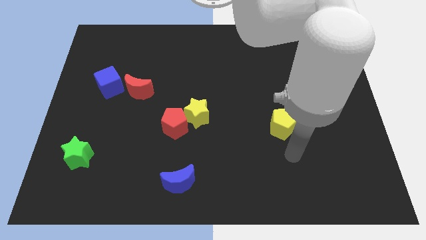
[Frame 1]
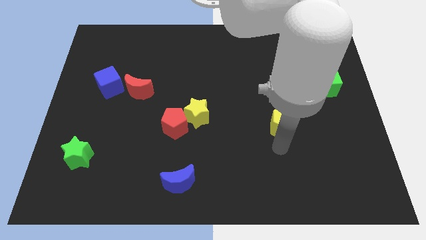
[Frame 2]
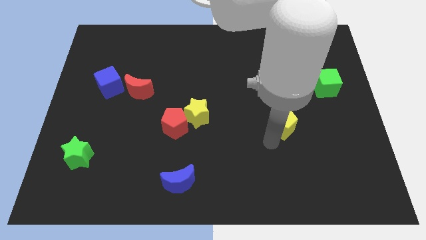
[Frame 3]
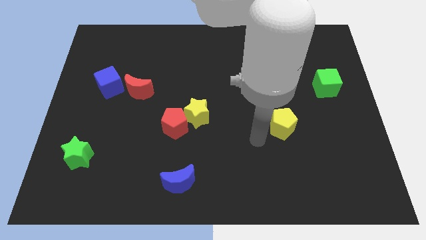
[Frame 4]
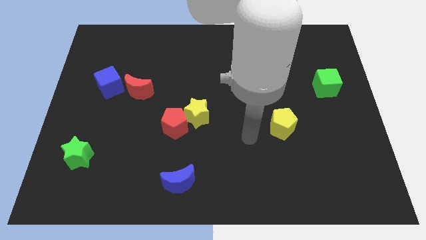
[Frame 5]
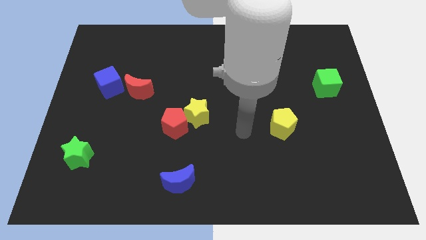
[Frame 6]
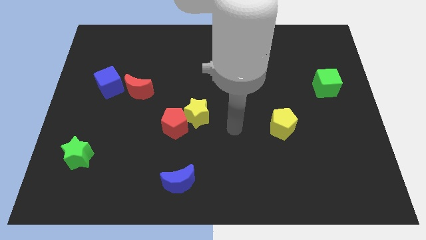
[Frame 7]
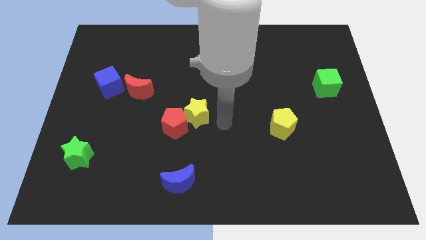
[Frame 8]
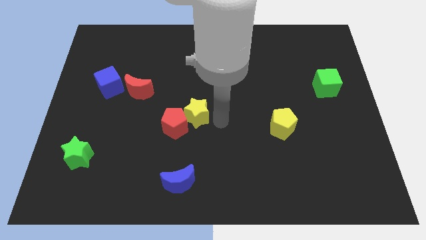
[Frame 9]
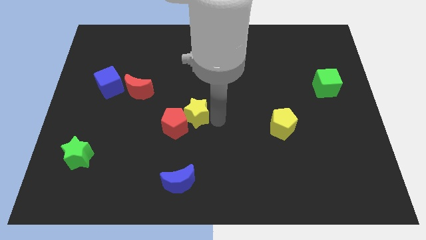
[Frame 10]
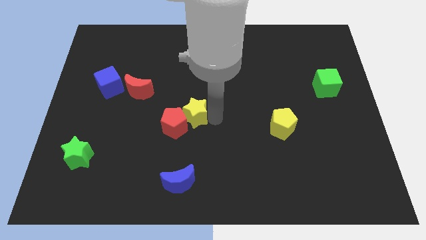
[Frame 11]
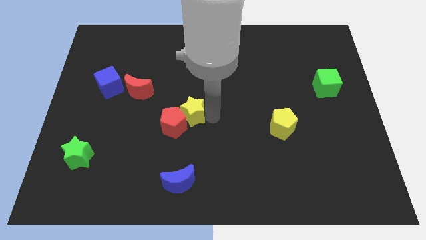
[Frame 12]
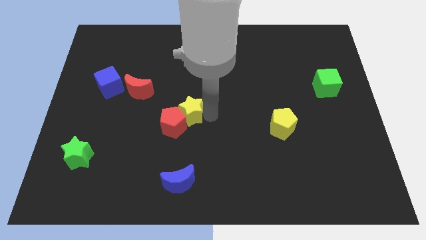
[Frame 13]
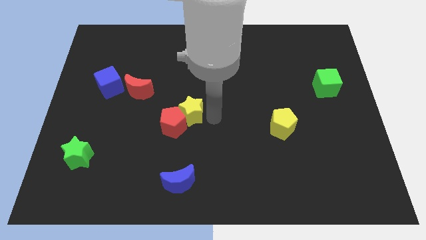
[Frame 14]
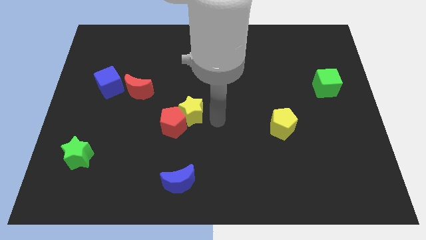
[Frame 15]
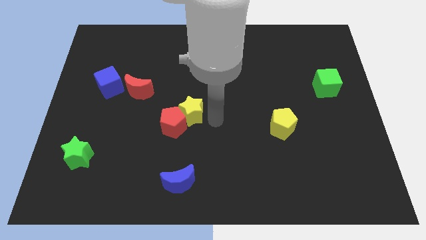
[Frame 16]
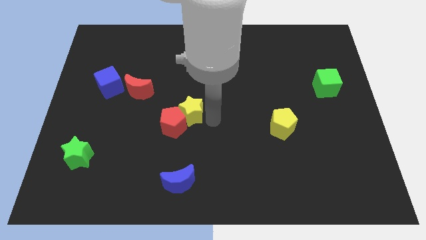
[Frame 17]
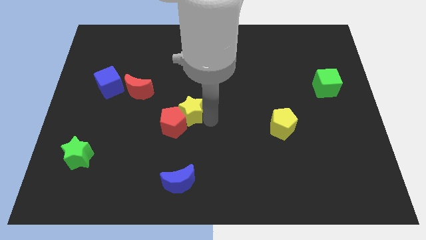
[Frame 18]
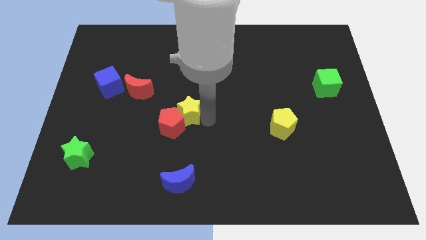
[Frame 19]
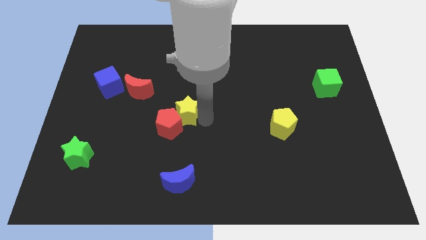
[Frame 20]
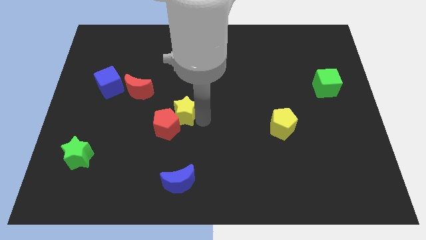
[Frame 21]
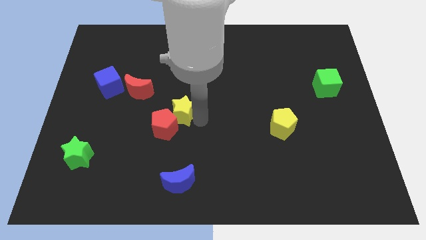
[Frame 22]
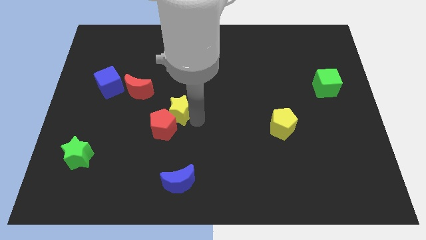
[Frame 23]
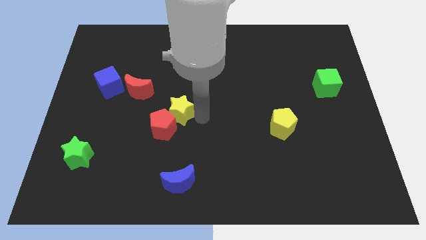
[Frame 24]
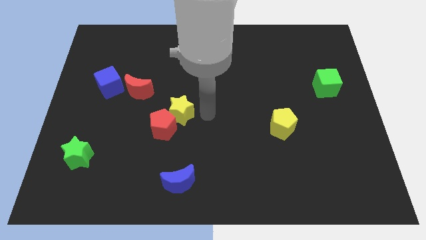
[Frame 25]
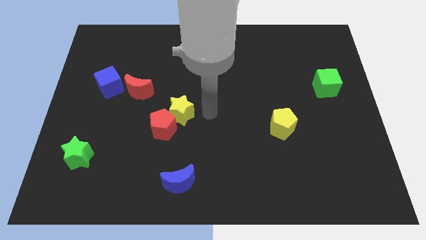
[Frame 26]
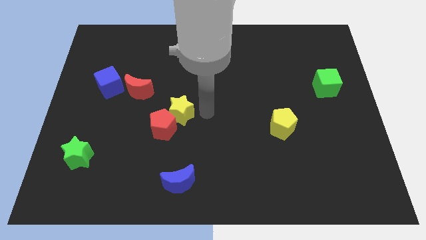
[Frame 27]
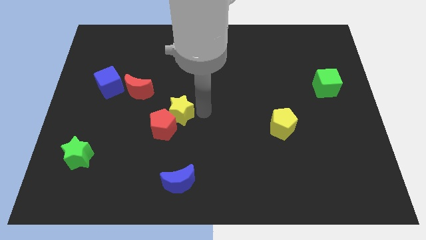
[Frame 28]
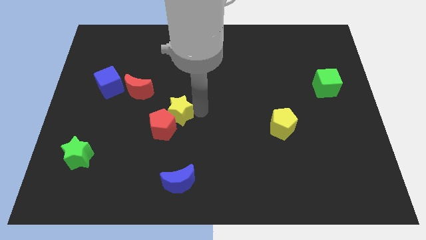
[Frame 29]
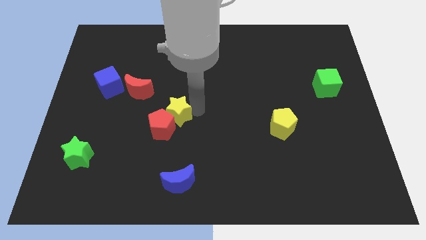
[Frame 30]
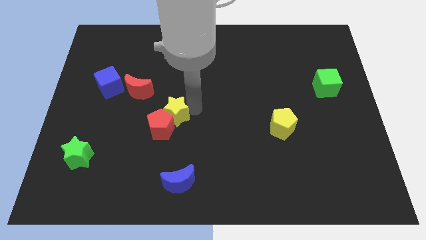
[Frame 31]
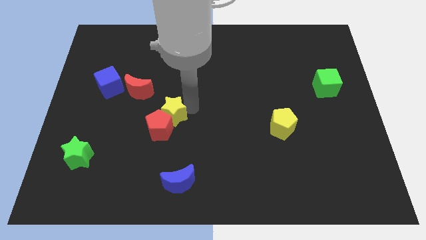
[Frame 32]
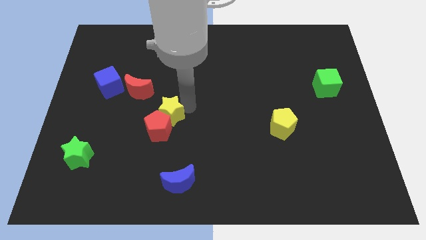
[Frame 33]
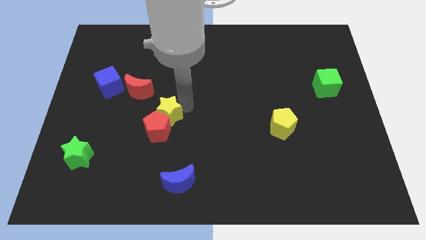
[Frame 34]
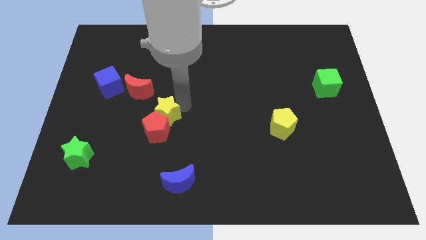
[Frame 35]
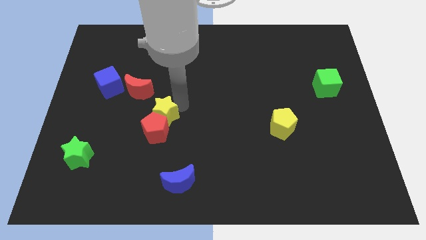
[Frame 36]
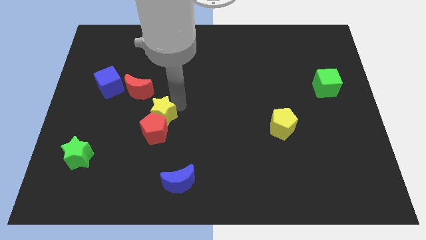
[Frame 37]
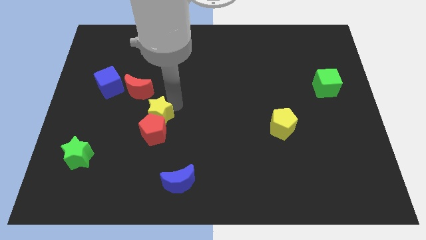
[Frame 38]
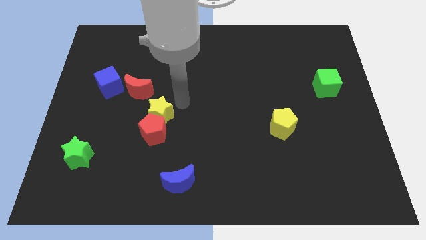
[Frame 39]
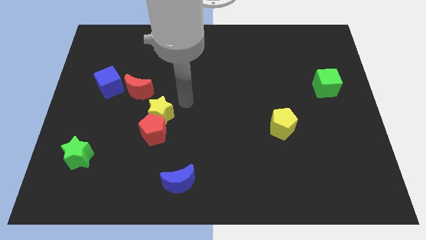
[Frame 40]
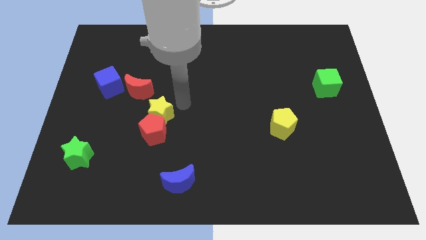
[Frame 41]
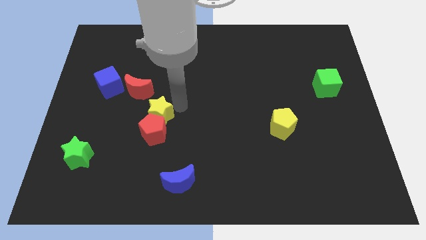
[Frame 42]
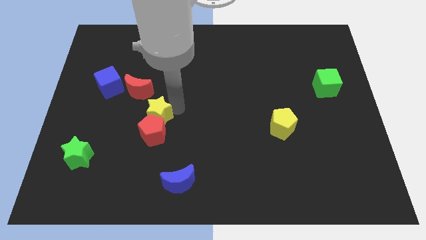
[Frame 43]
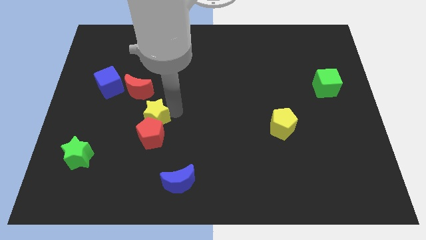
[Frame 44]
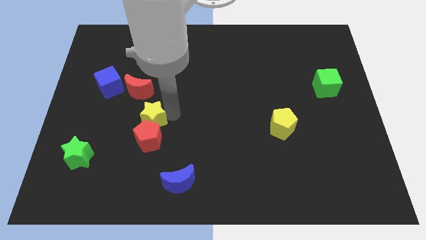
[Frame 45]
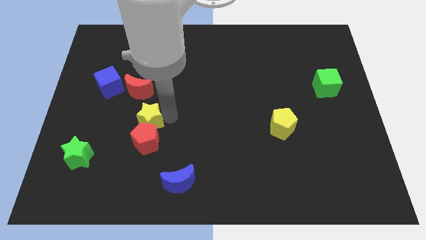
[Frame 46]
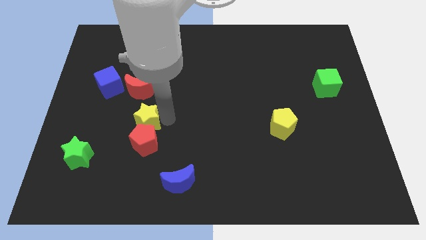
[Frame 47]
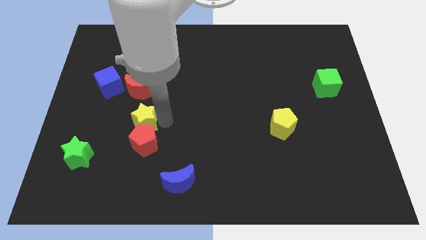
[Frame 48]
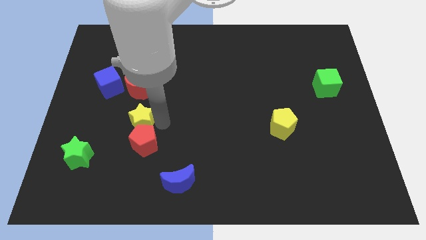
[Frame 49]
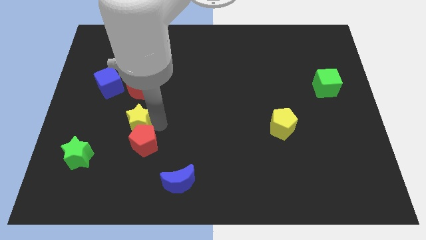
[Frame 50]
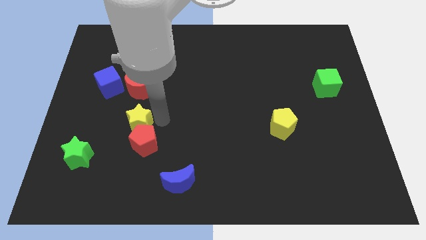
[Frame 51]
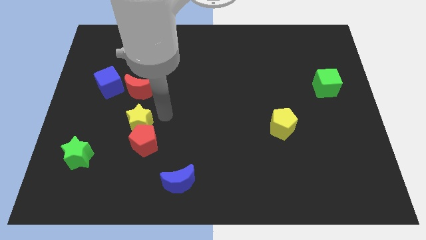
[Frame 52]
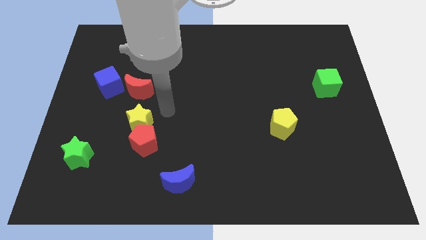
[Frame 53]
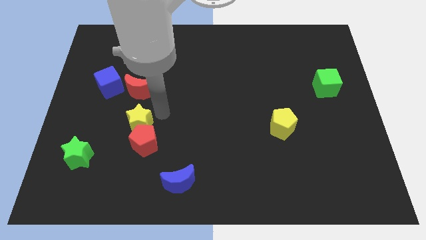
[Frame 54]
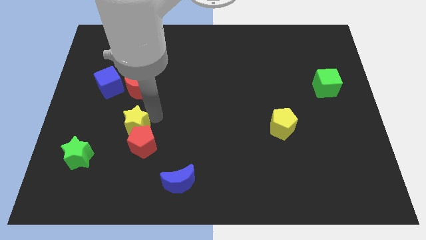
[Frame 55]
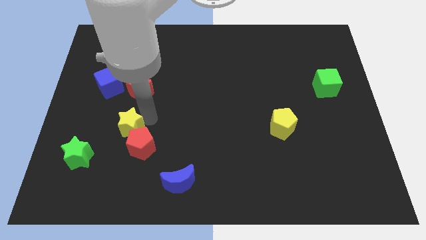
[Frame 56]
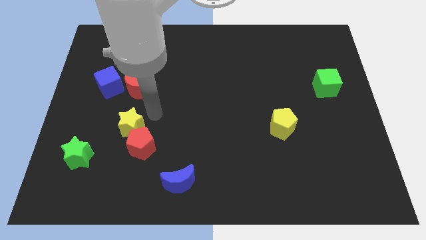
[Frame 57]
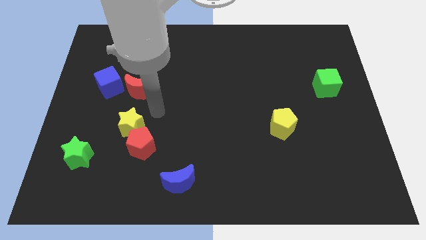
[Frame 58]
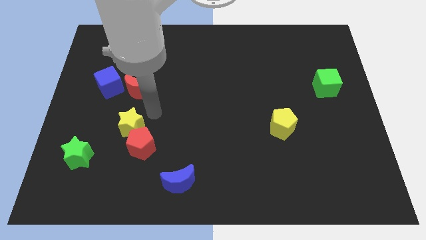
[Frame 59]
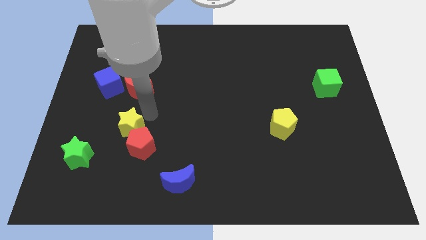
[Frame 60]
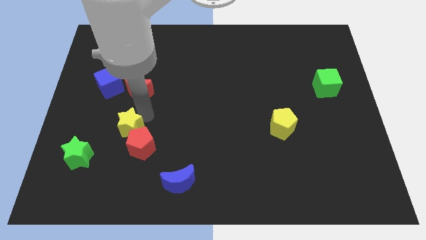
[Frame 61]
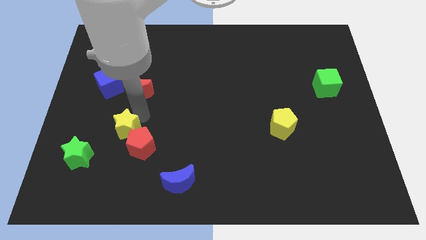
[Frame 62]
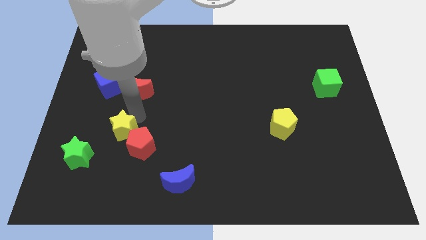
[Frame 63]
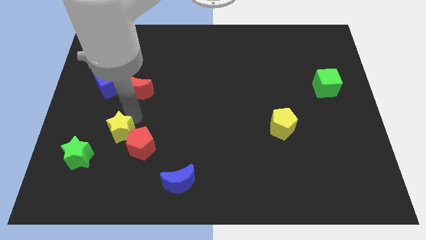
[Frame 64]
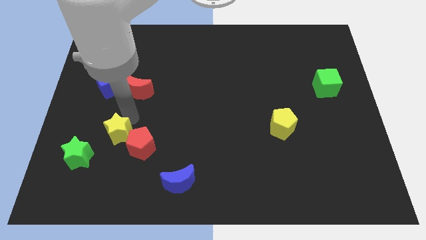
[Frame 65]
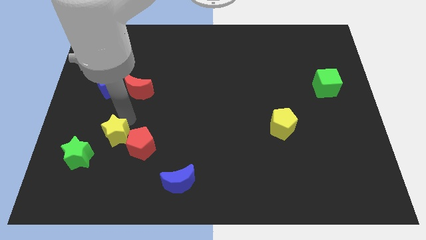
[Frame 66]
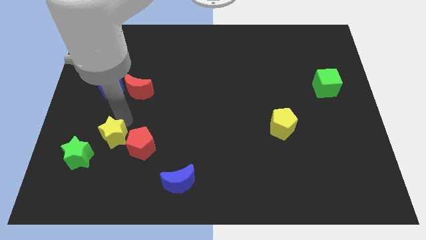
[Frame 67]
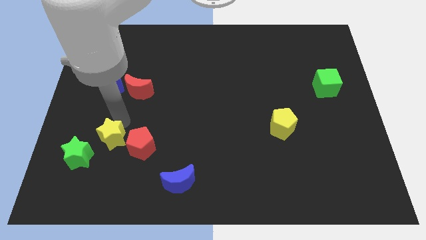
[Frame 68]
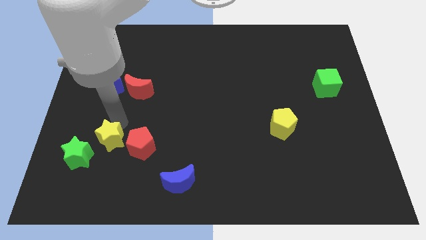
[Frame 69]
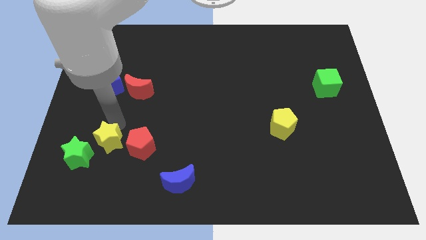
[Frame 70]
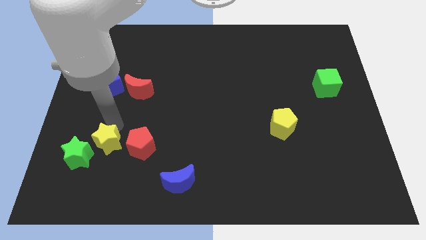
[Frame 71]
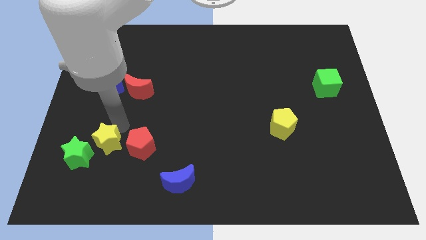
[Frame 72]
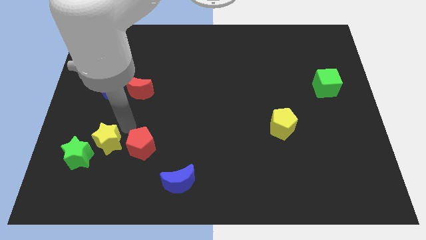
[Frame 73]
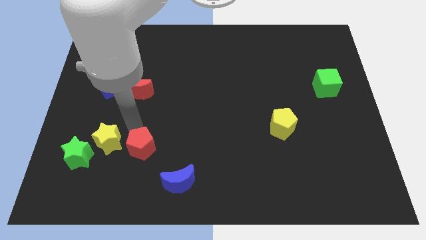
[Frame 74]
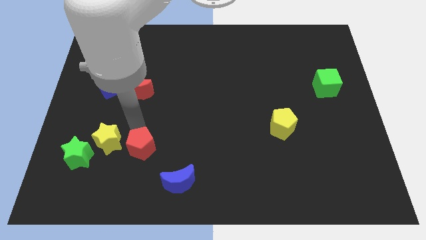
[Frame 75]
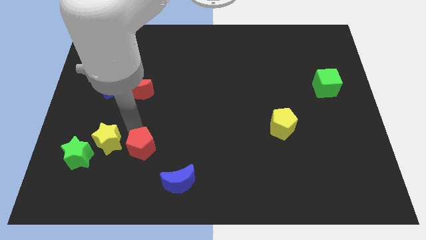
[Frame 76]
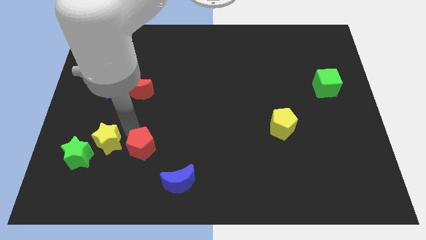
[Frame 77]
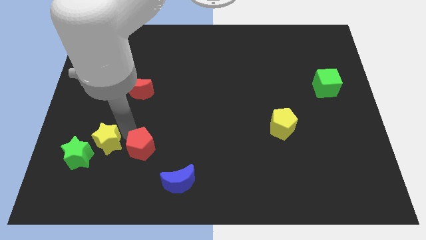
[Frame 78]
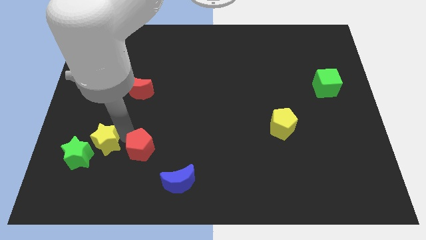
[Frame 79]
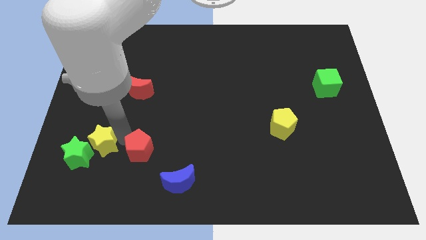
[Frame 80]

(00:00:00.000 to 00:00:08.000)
move the yellow star close to the green star
